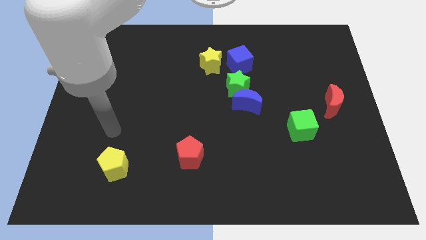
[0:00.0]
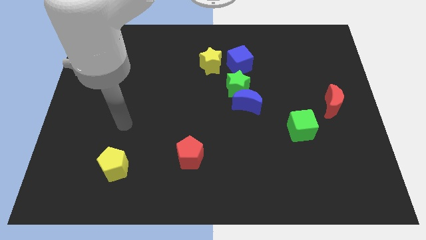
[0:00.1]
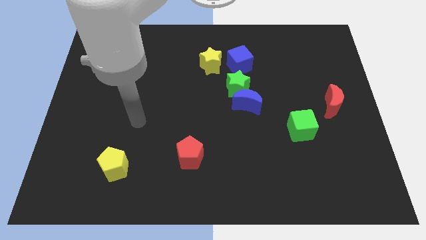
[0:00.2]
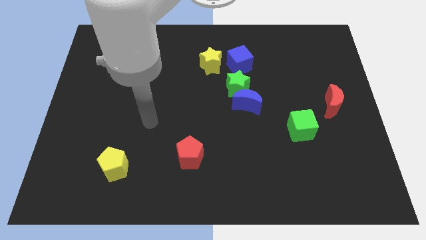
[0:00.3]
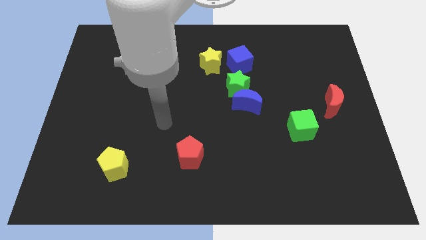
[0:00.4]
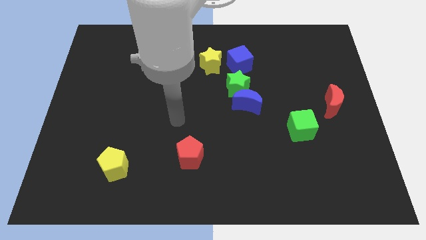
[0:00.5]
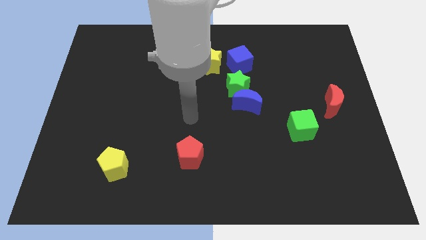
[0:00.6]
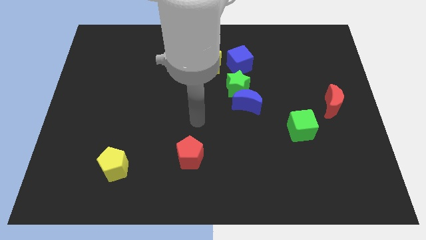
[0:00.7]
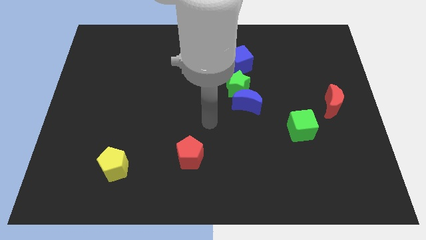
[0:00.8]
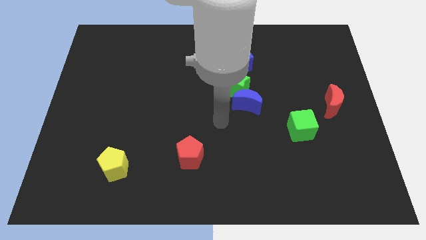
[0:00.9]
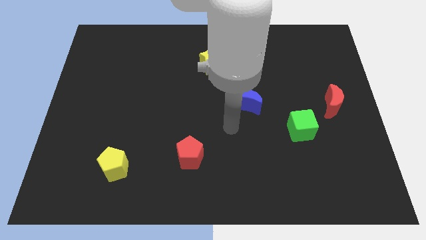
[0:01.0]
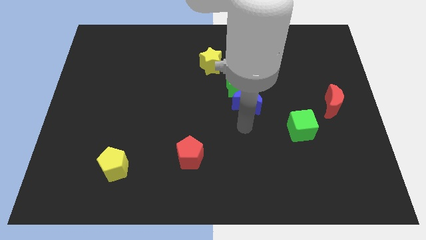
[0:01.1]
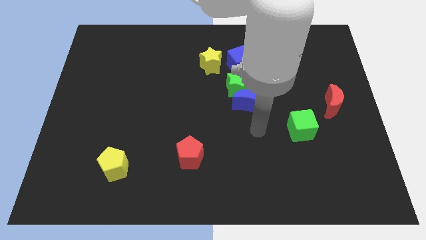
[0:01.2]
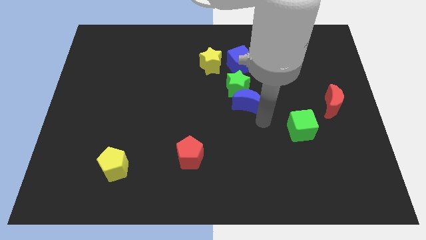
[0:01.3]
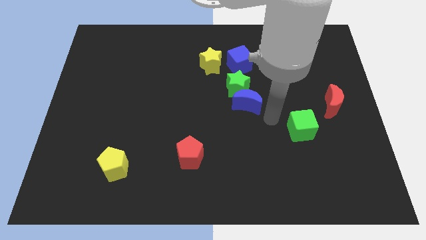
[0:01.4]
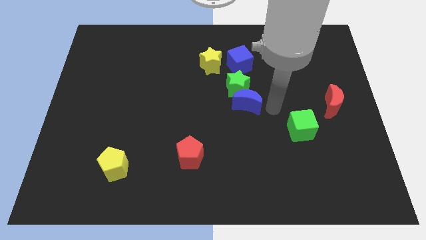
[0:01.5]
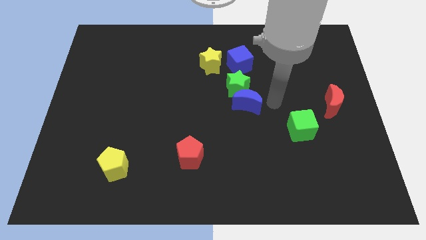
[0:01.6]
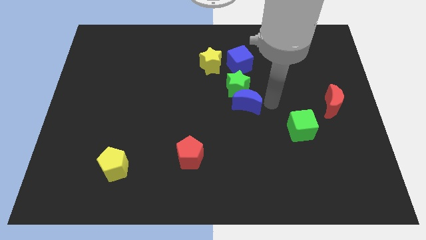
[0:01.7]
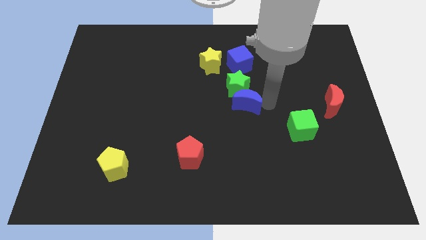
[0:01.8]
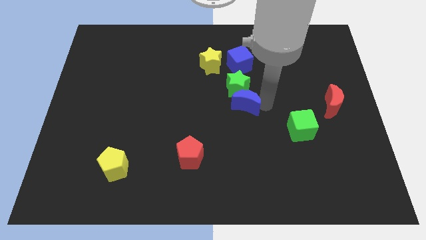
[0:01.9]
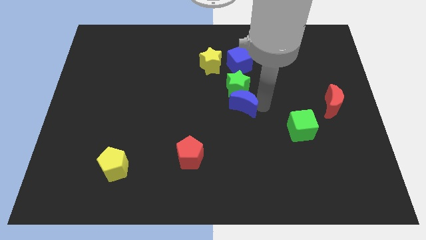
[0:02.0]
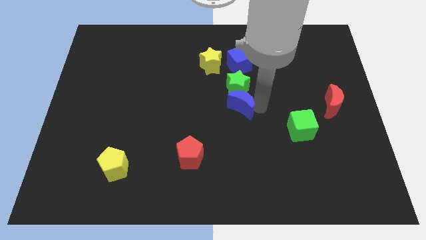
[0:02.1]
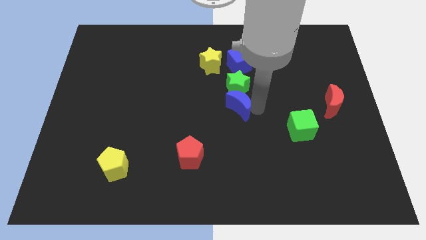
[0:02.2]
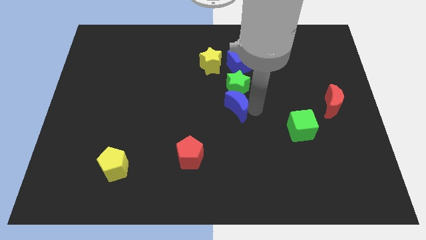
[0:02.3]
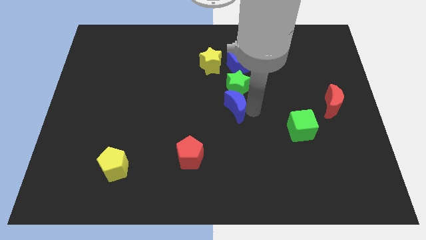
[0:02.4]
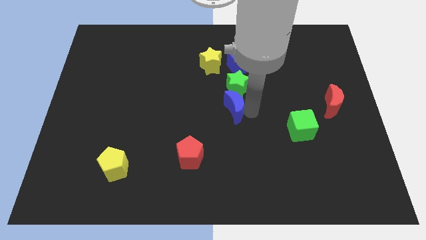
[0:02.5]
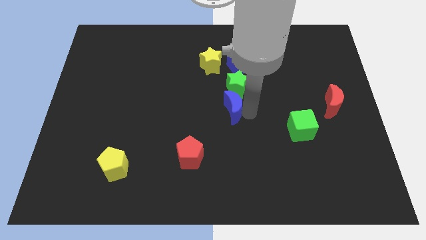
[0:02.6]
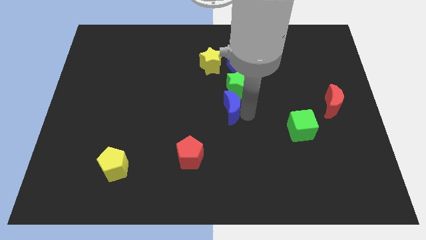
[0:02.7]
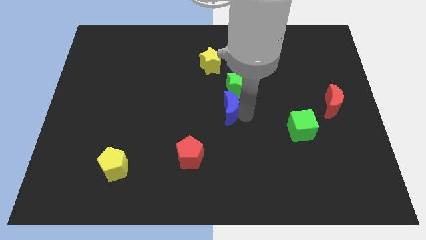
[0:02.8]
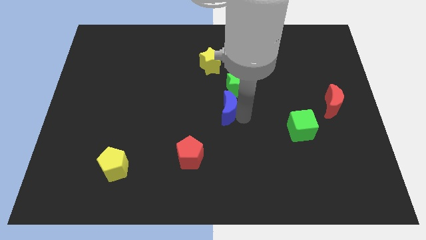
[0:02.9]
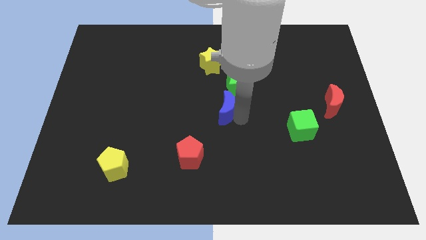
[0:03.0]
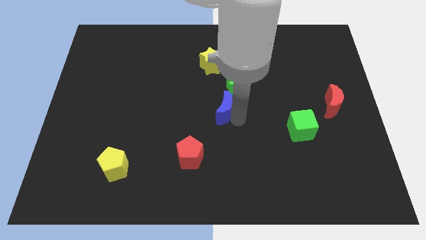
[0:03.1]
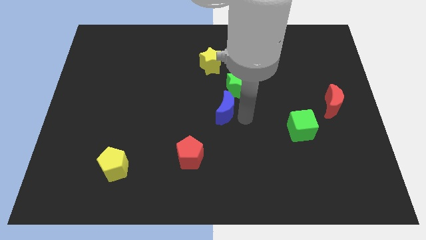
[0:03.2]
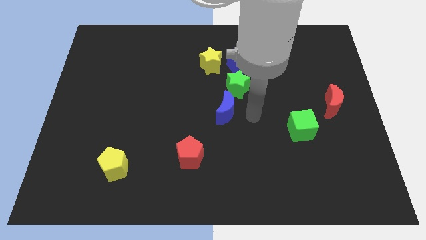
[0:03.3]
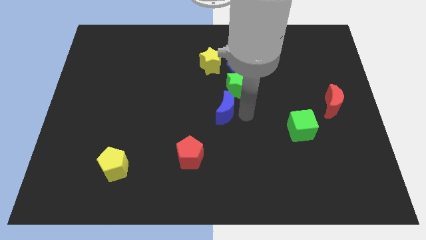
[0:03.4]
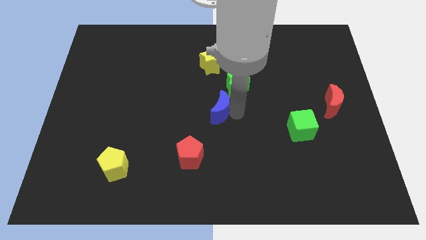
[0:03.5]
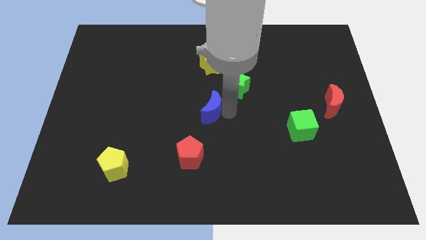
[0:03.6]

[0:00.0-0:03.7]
move the blue moon to the left a little bit

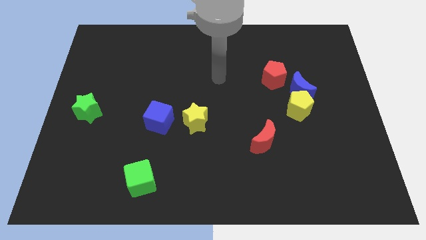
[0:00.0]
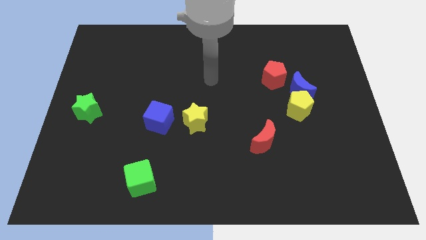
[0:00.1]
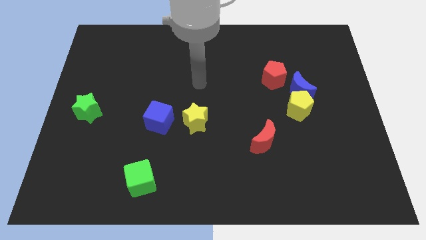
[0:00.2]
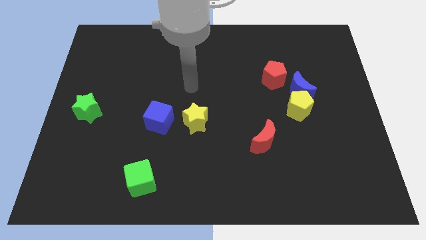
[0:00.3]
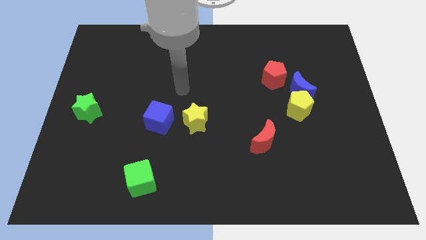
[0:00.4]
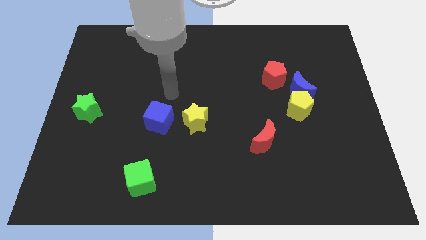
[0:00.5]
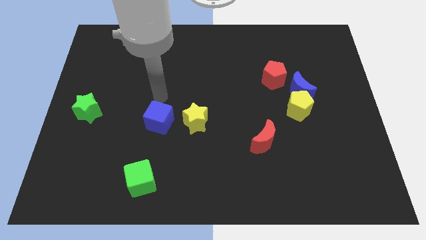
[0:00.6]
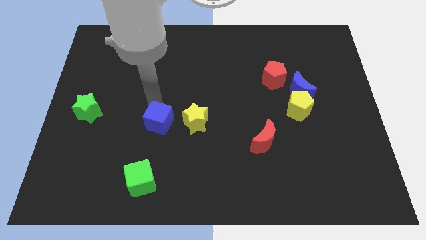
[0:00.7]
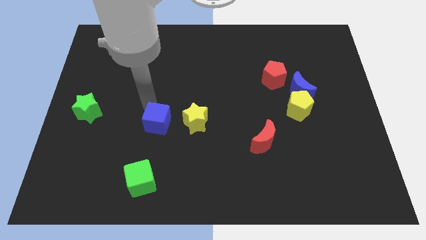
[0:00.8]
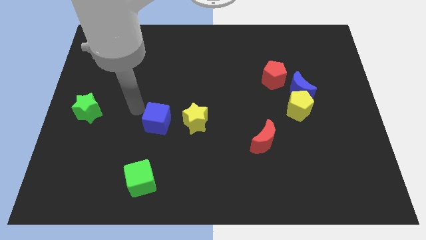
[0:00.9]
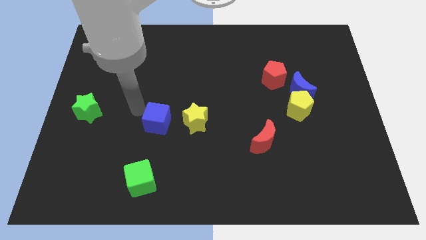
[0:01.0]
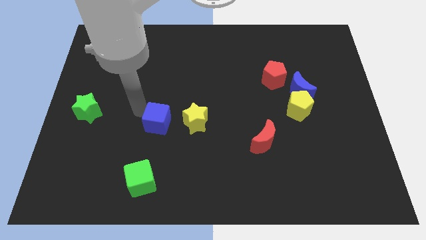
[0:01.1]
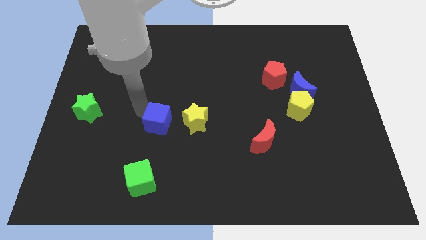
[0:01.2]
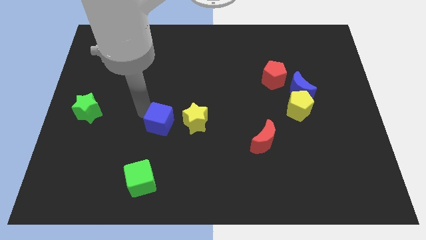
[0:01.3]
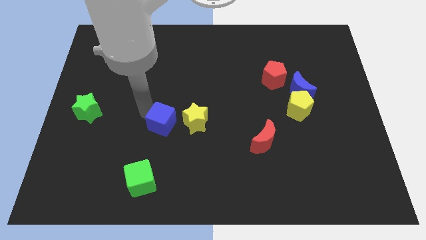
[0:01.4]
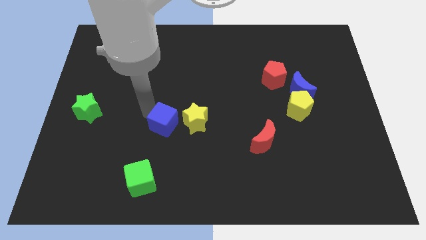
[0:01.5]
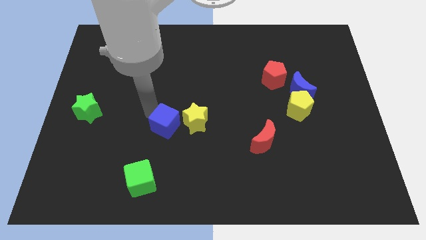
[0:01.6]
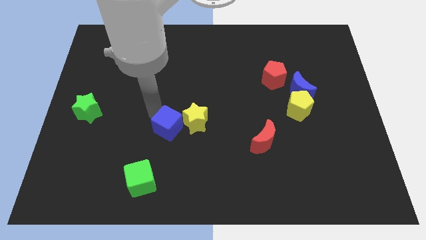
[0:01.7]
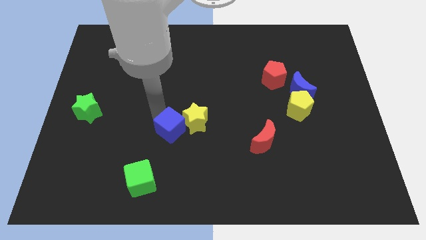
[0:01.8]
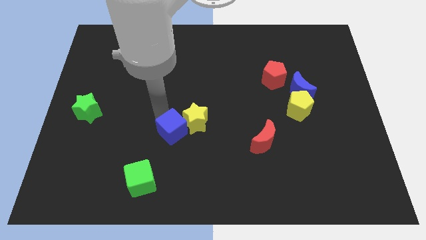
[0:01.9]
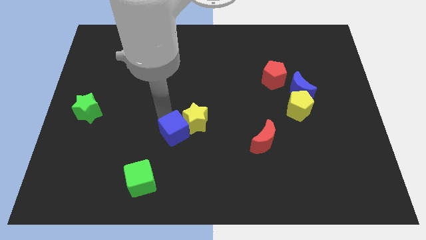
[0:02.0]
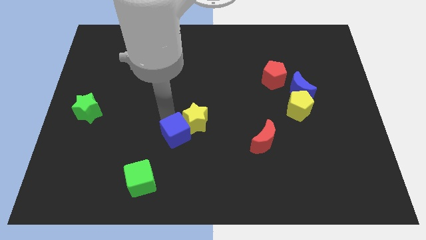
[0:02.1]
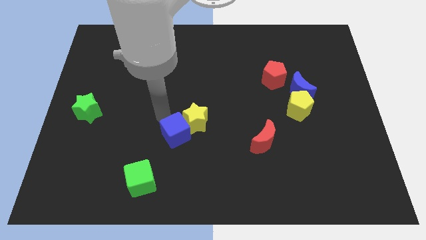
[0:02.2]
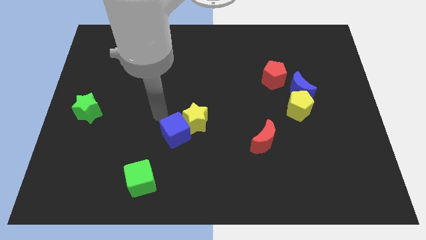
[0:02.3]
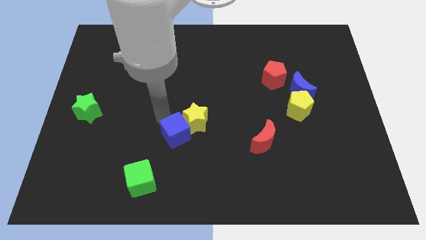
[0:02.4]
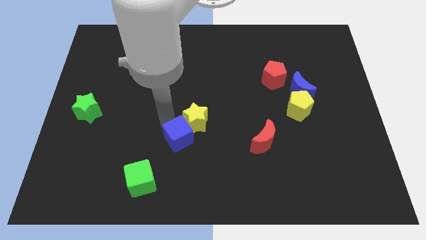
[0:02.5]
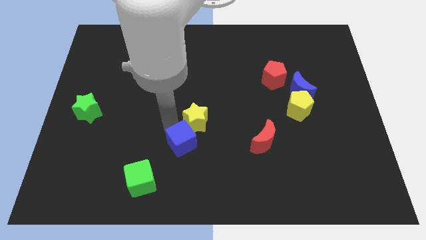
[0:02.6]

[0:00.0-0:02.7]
move the blue cube a bit down and to the right diagonally

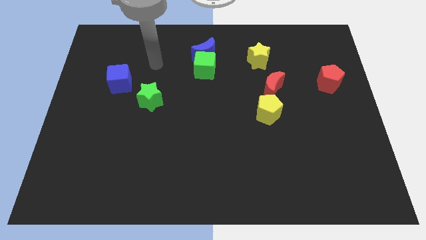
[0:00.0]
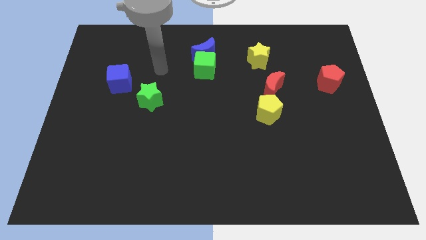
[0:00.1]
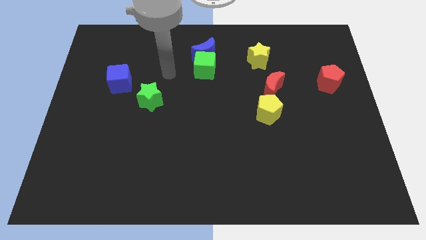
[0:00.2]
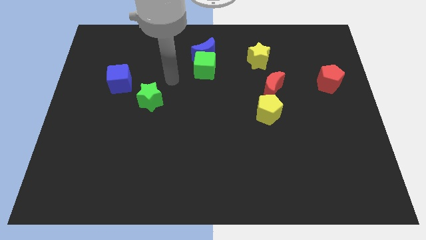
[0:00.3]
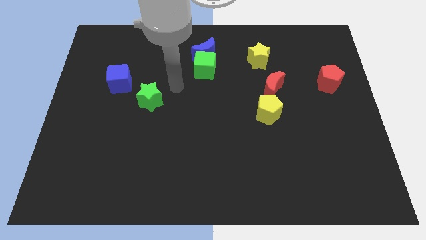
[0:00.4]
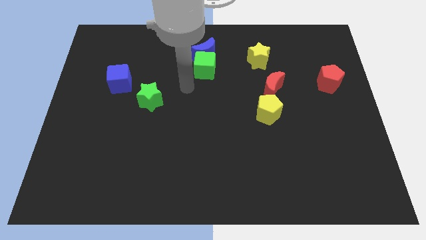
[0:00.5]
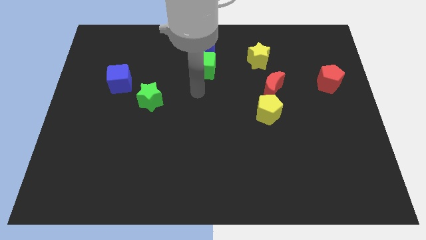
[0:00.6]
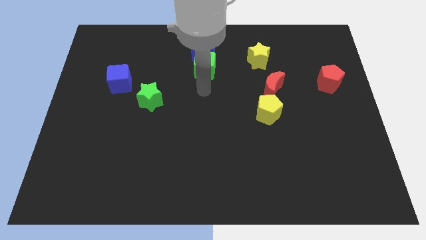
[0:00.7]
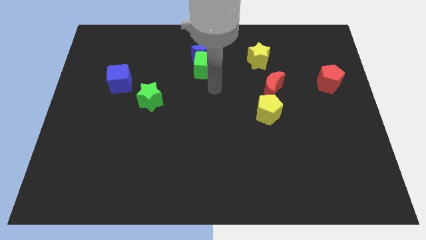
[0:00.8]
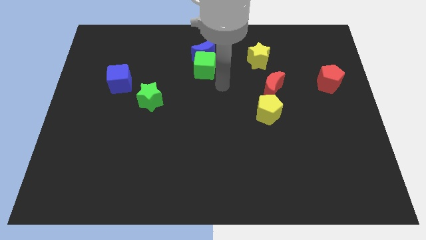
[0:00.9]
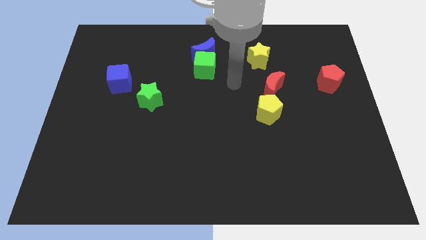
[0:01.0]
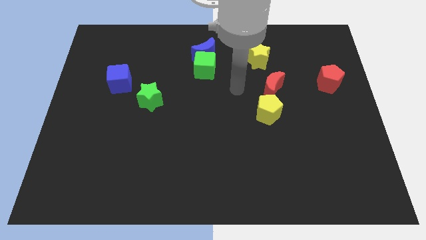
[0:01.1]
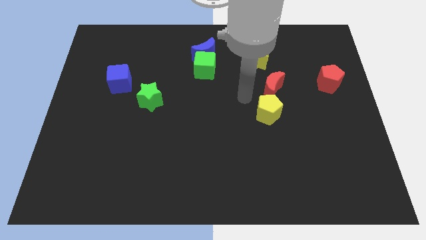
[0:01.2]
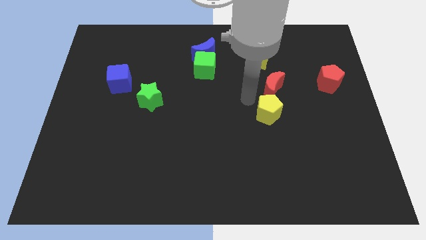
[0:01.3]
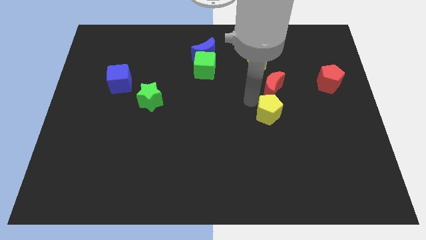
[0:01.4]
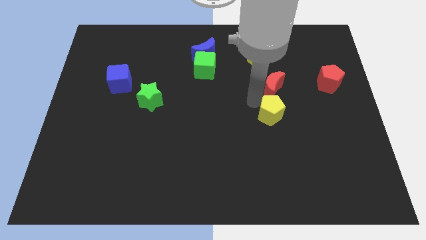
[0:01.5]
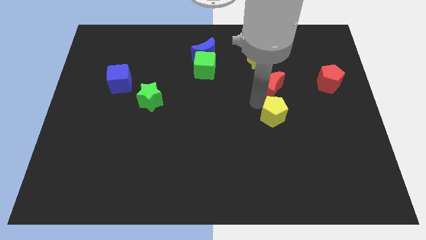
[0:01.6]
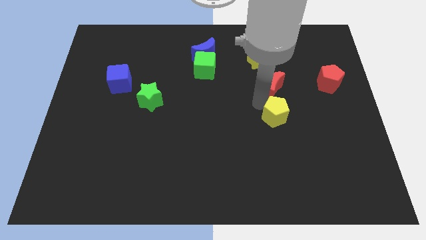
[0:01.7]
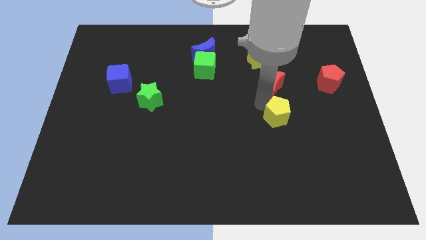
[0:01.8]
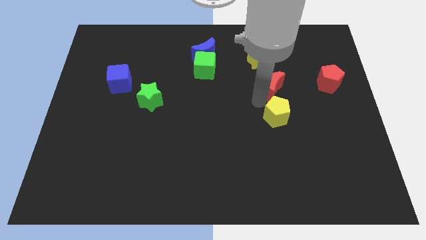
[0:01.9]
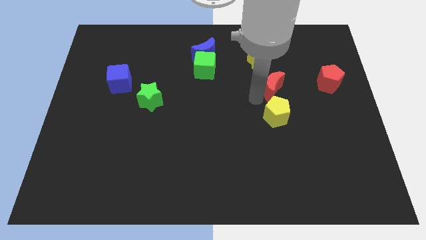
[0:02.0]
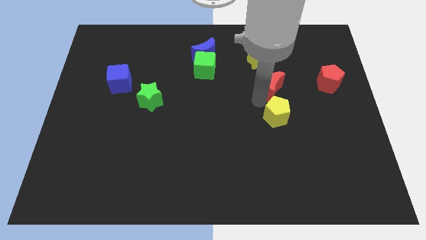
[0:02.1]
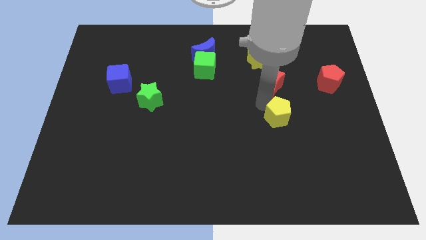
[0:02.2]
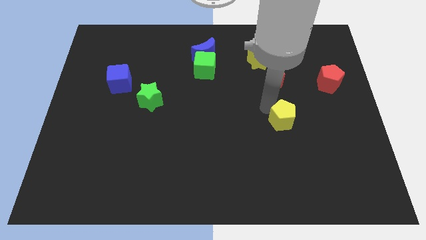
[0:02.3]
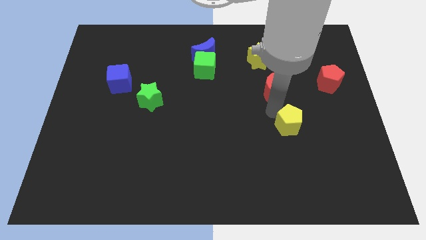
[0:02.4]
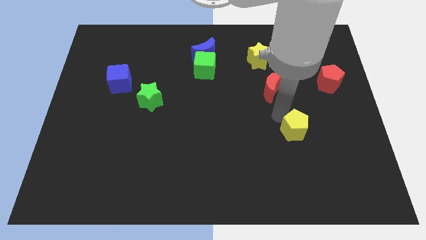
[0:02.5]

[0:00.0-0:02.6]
push the yellow pentagon a little downwards and then to the right
